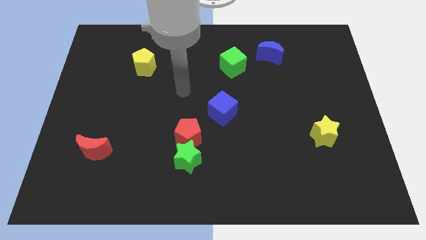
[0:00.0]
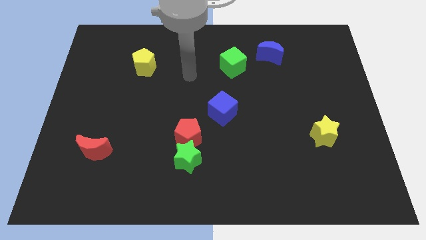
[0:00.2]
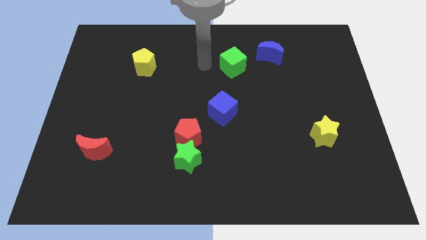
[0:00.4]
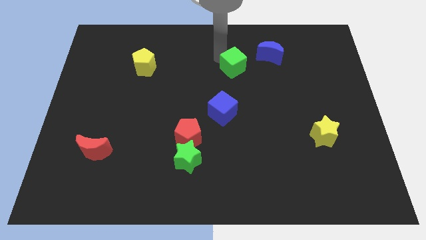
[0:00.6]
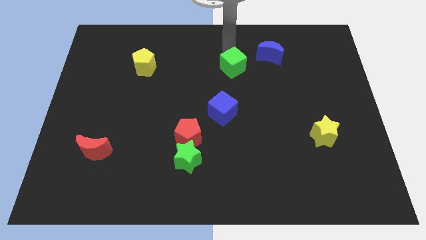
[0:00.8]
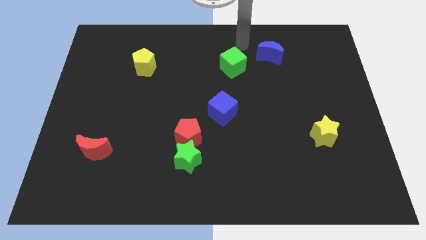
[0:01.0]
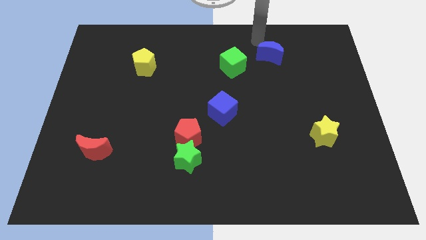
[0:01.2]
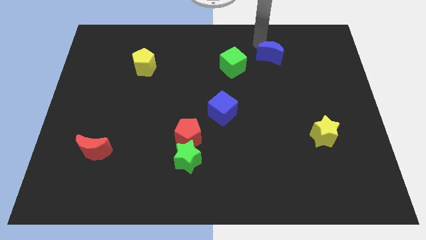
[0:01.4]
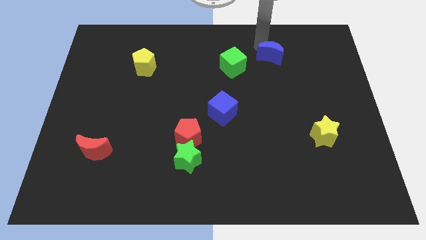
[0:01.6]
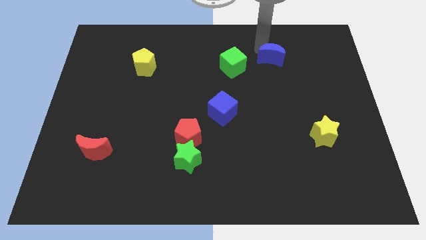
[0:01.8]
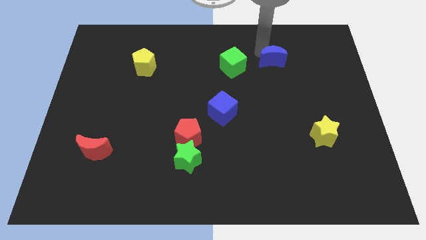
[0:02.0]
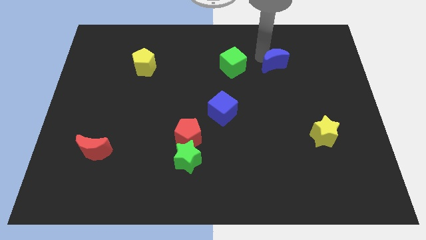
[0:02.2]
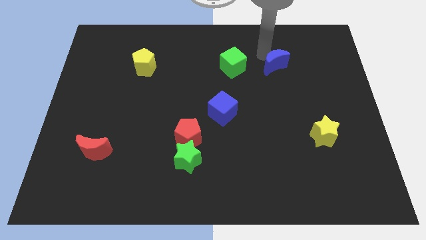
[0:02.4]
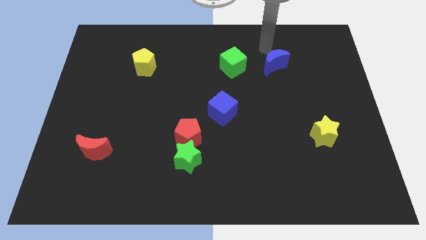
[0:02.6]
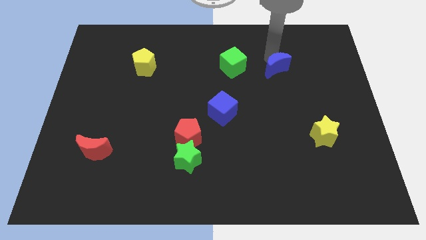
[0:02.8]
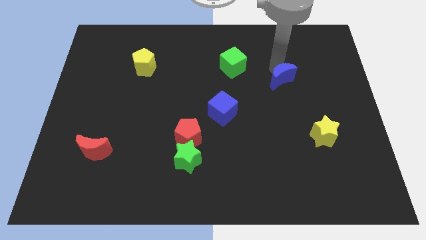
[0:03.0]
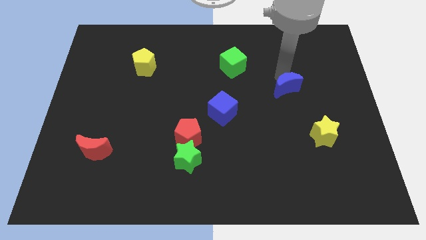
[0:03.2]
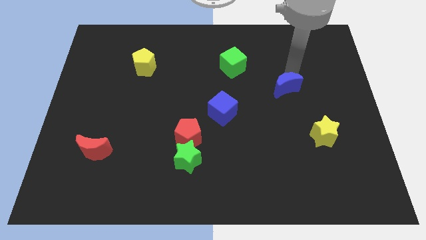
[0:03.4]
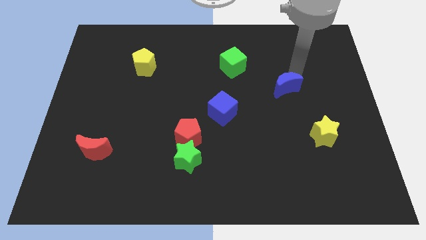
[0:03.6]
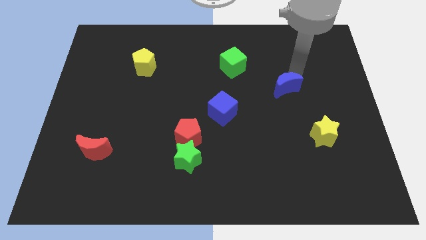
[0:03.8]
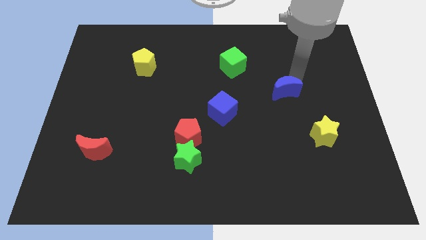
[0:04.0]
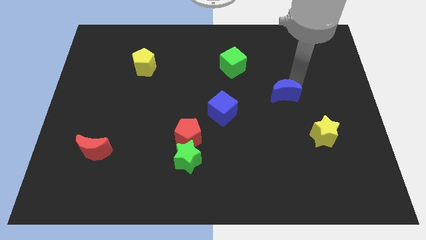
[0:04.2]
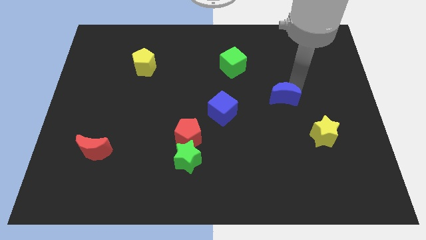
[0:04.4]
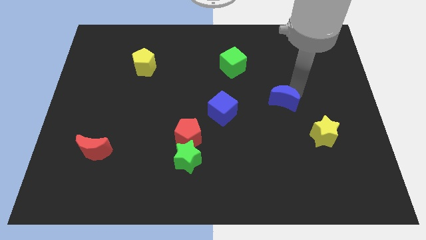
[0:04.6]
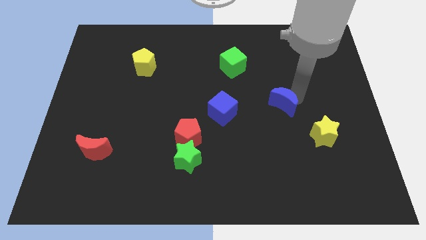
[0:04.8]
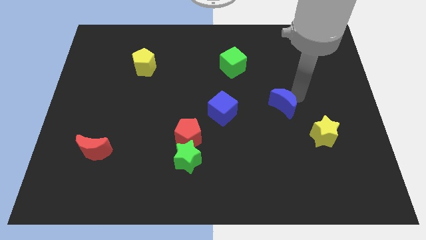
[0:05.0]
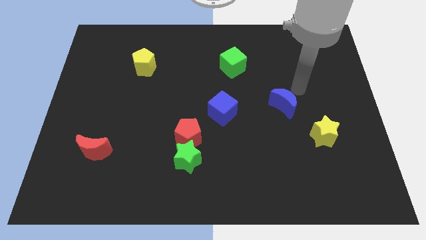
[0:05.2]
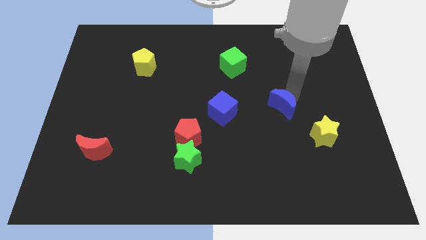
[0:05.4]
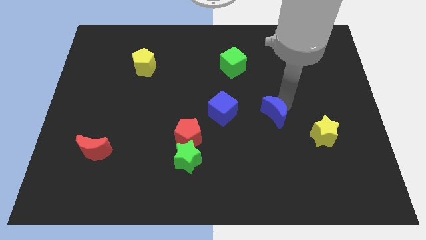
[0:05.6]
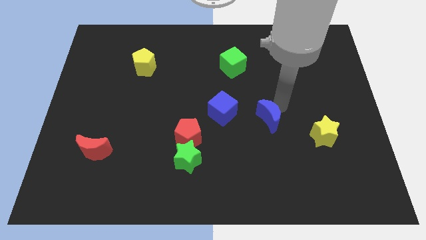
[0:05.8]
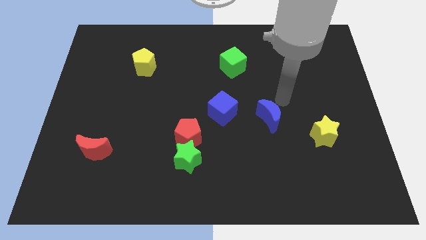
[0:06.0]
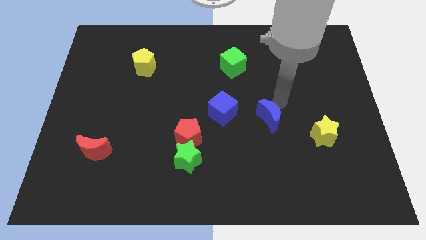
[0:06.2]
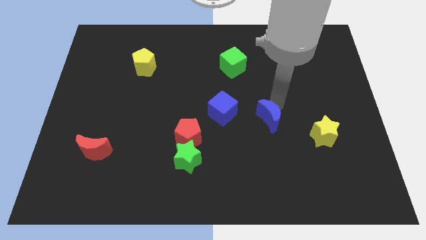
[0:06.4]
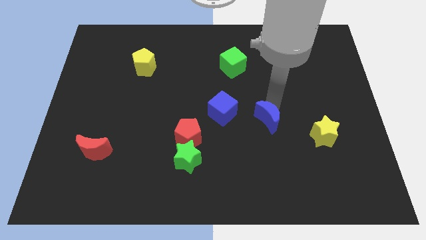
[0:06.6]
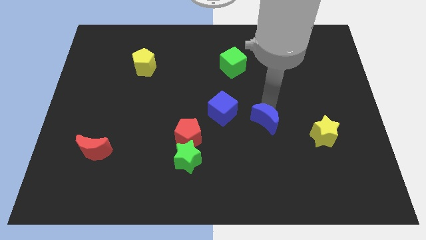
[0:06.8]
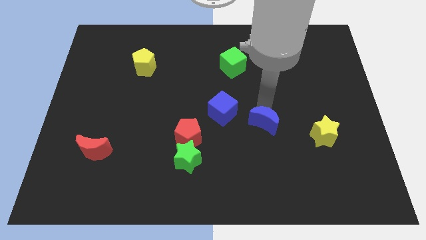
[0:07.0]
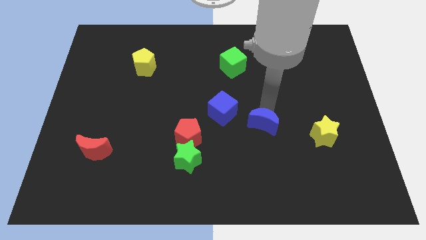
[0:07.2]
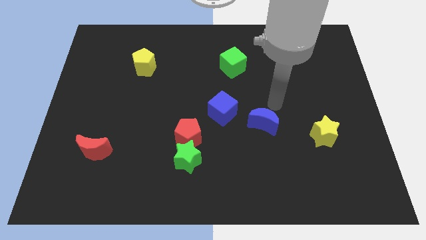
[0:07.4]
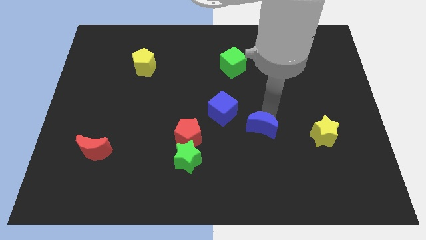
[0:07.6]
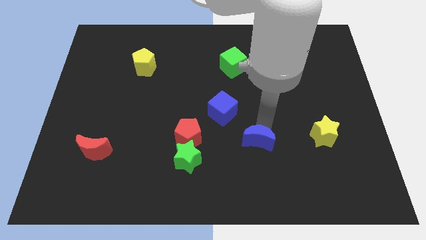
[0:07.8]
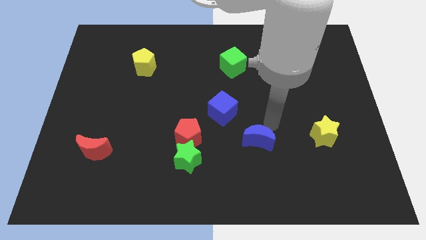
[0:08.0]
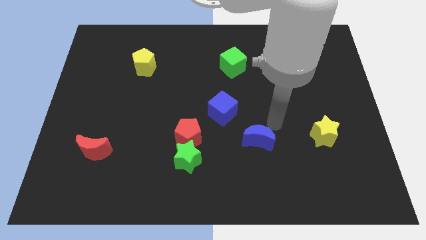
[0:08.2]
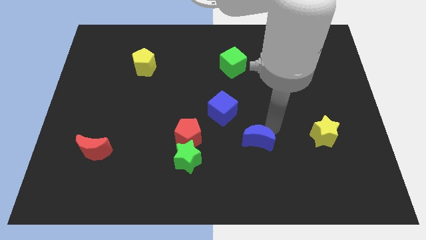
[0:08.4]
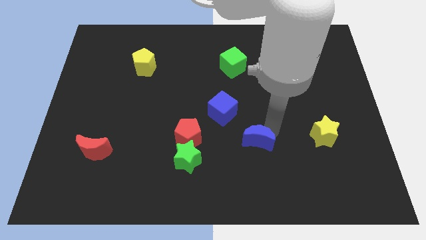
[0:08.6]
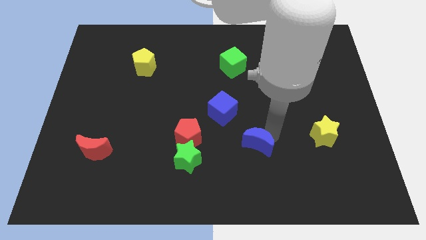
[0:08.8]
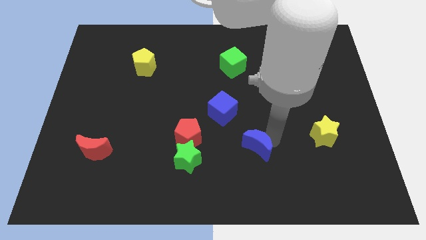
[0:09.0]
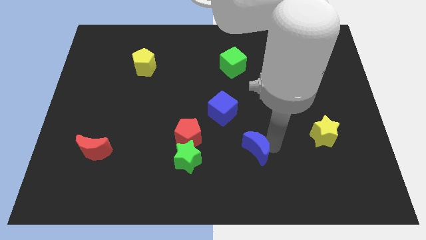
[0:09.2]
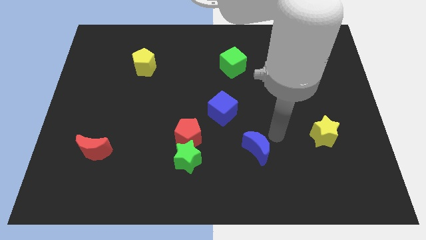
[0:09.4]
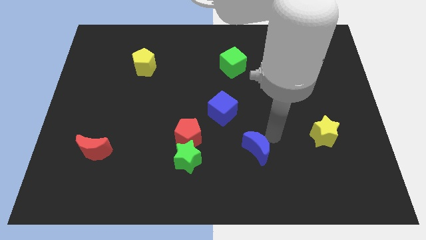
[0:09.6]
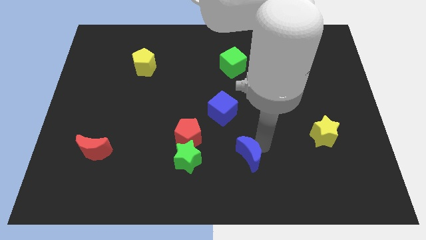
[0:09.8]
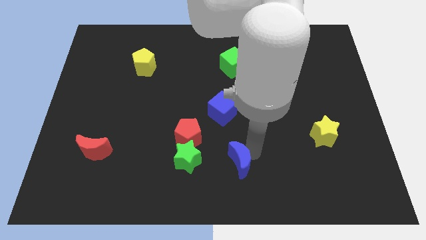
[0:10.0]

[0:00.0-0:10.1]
move the blue moon to the bottom side

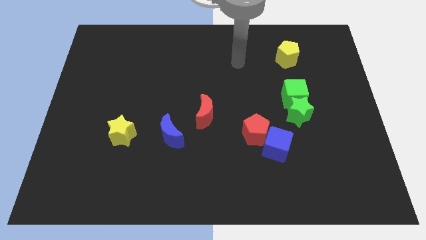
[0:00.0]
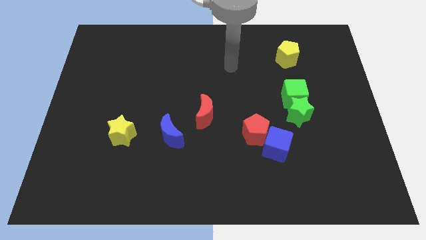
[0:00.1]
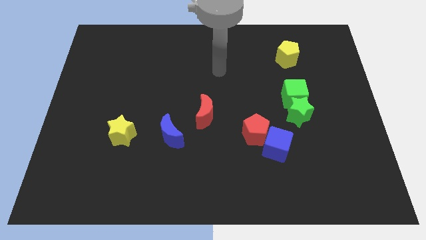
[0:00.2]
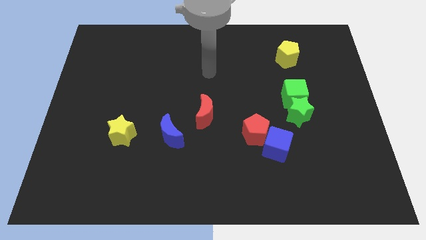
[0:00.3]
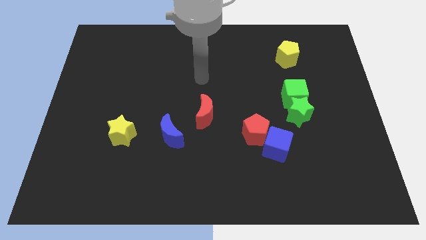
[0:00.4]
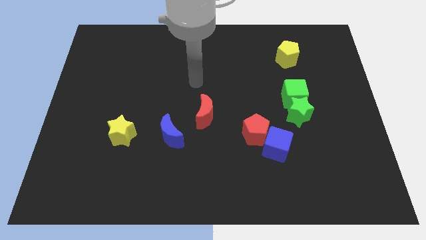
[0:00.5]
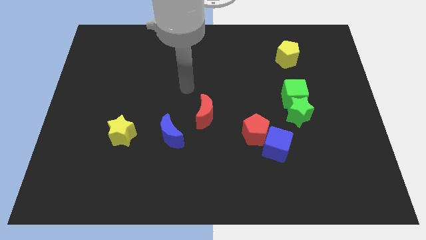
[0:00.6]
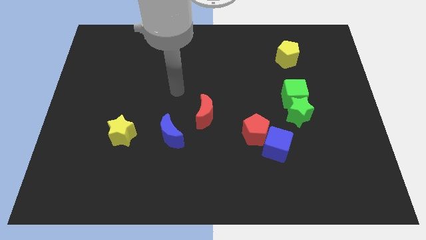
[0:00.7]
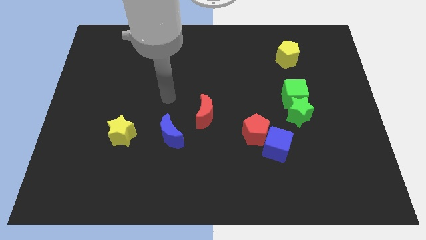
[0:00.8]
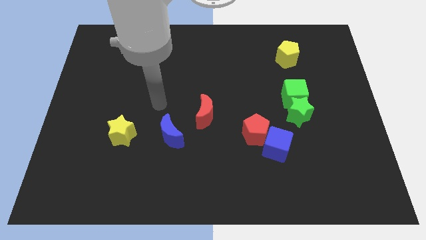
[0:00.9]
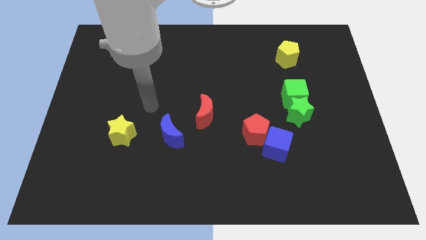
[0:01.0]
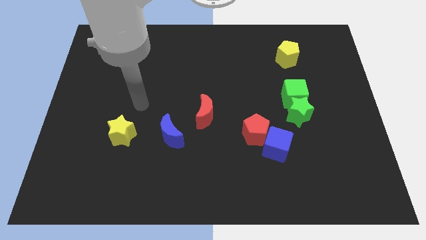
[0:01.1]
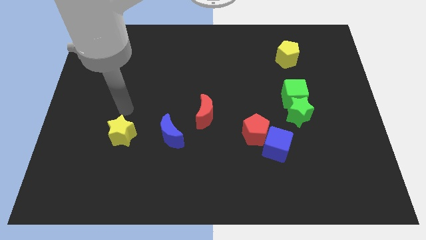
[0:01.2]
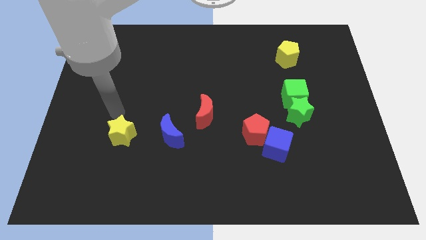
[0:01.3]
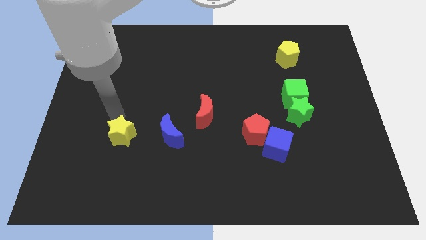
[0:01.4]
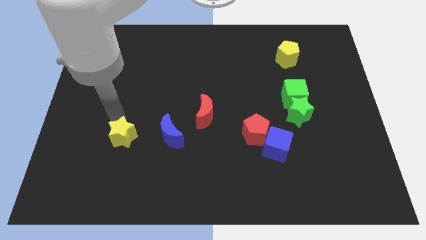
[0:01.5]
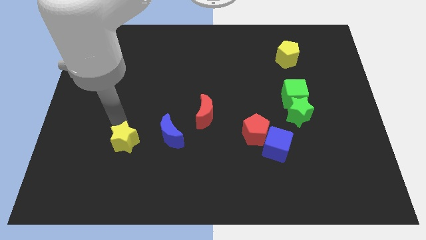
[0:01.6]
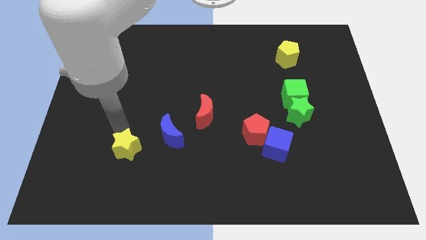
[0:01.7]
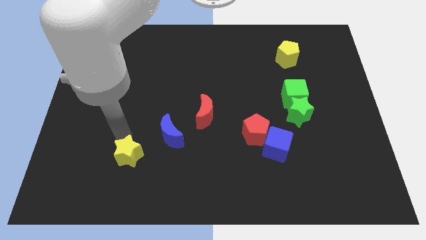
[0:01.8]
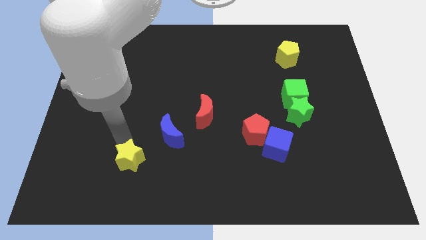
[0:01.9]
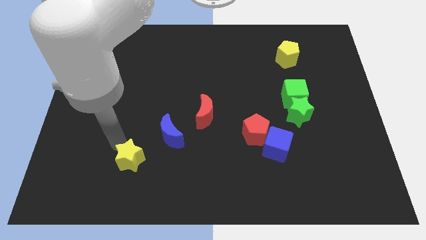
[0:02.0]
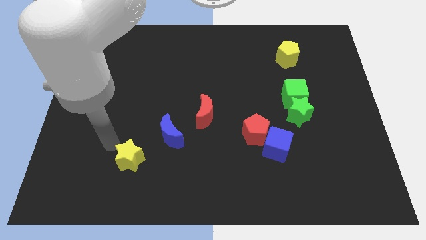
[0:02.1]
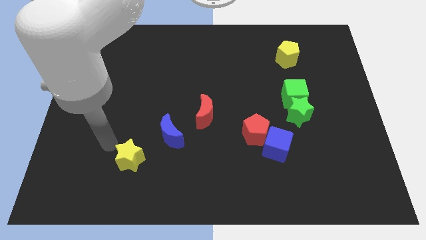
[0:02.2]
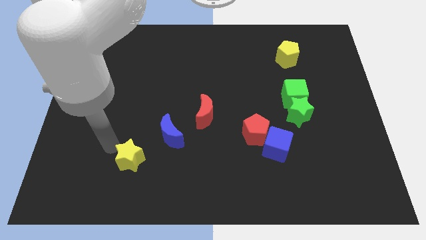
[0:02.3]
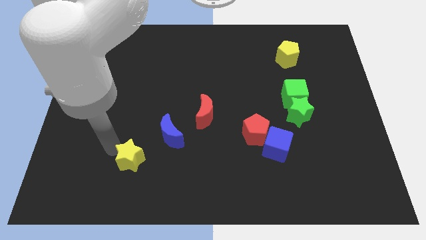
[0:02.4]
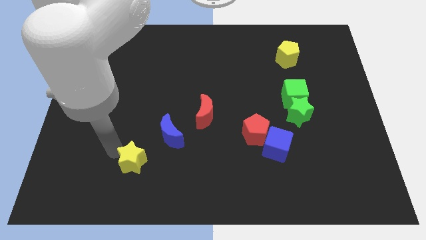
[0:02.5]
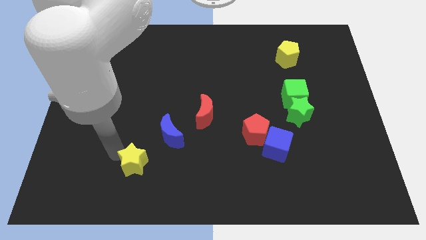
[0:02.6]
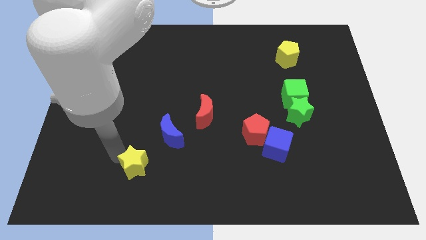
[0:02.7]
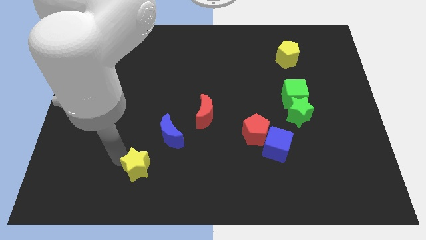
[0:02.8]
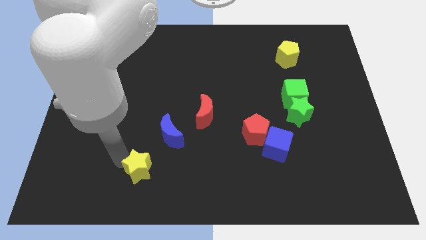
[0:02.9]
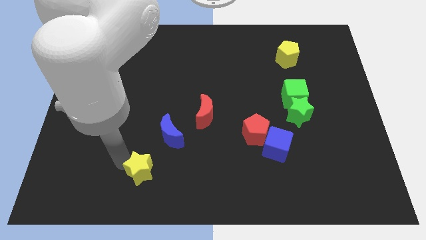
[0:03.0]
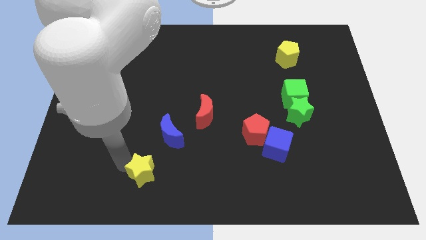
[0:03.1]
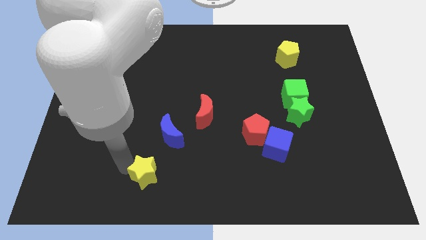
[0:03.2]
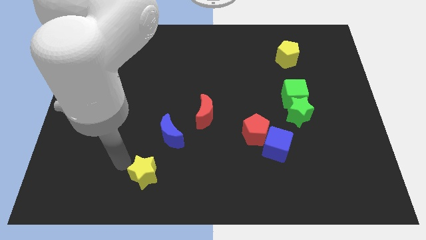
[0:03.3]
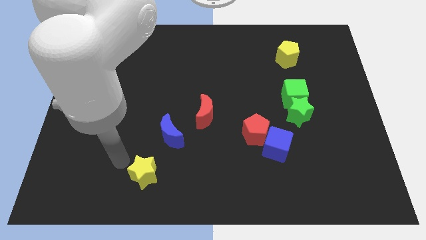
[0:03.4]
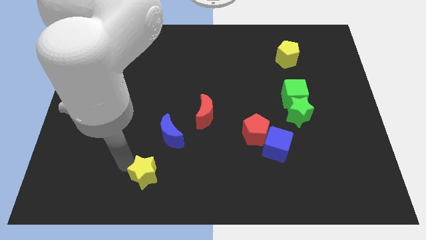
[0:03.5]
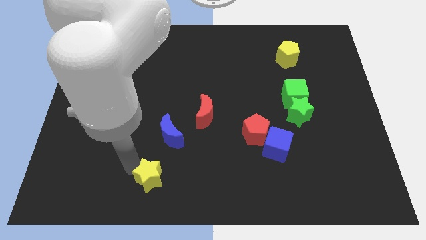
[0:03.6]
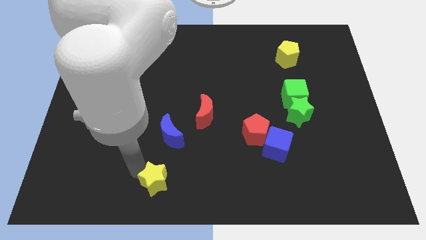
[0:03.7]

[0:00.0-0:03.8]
push the yellow star to the bottom
